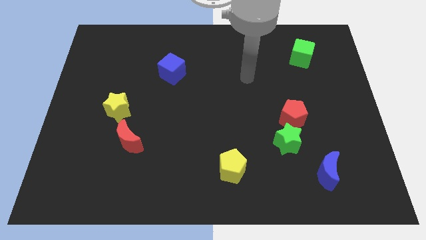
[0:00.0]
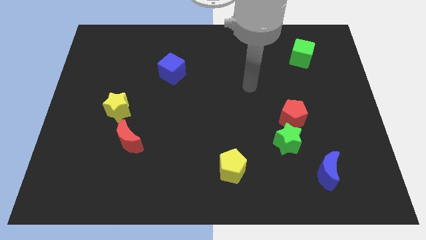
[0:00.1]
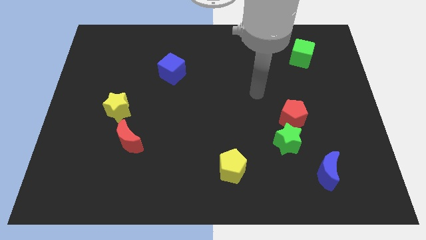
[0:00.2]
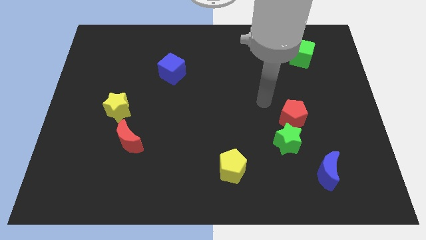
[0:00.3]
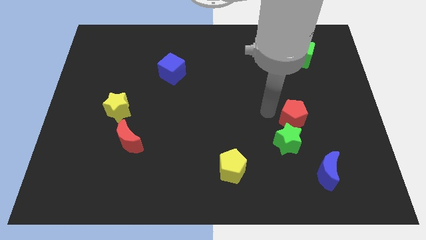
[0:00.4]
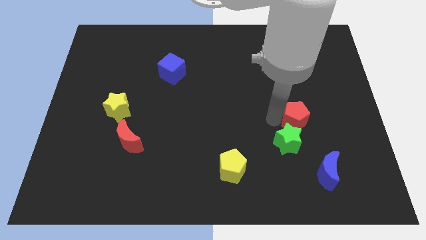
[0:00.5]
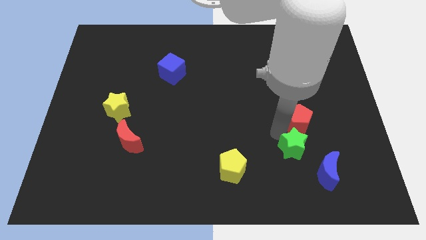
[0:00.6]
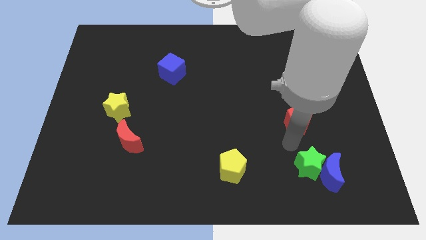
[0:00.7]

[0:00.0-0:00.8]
separate the red pentagon from the green star

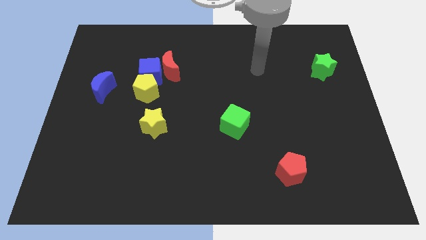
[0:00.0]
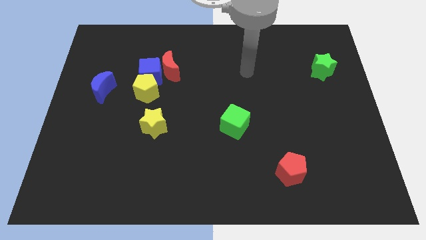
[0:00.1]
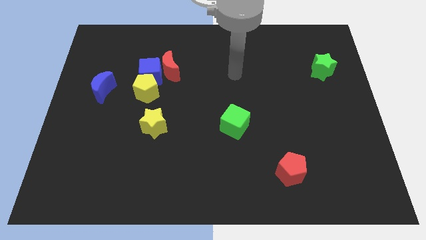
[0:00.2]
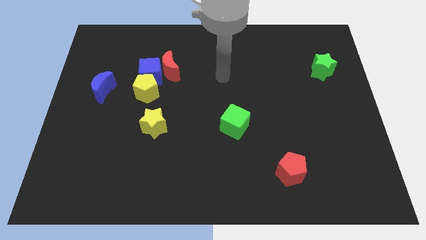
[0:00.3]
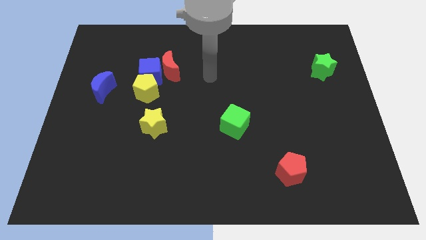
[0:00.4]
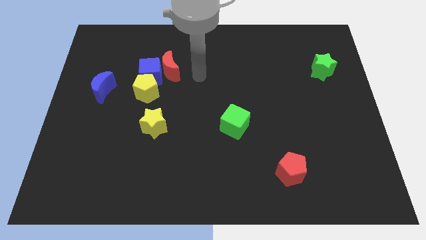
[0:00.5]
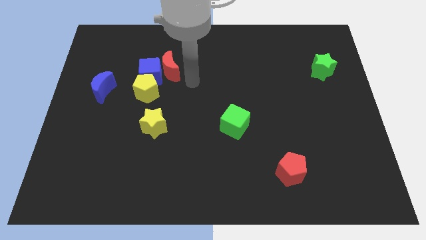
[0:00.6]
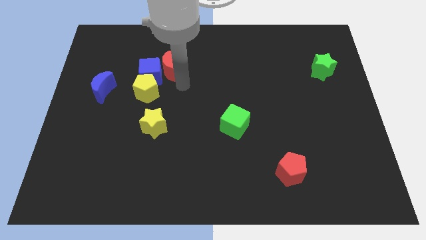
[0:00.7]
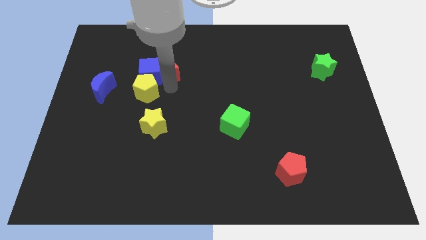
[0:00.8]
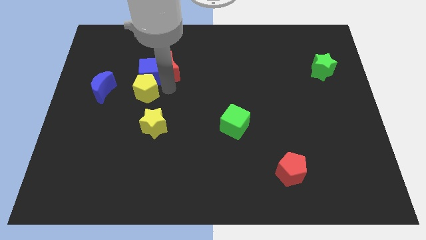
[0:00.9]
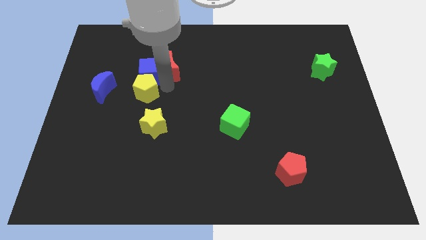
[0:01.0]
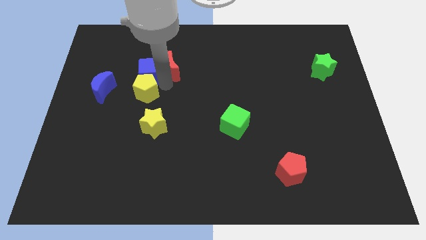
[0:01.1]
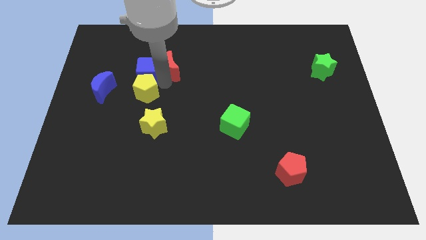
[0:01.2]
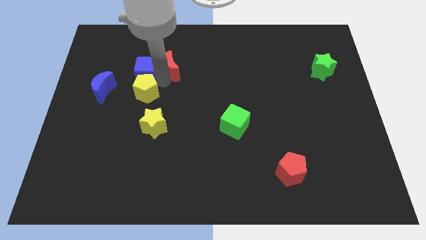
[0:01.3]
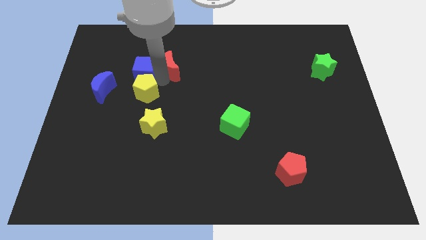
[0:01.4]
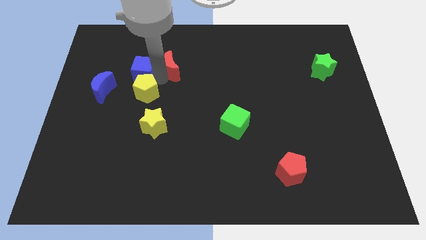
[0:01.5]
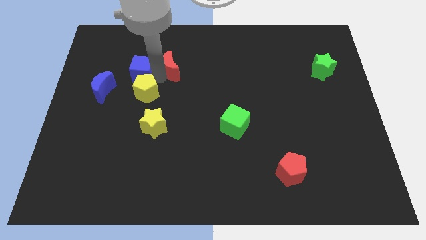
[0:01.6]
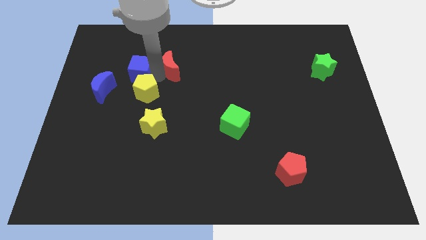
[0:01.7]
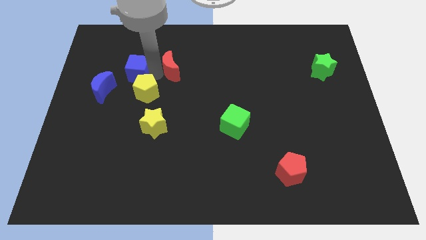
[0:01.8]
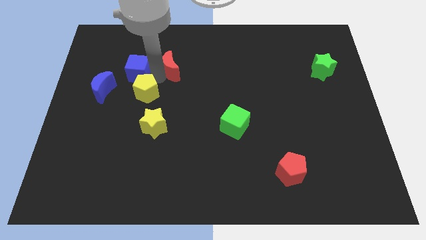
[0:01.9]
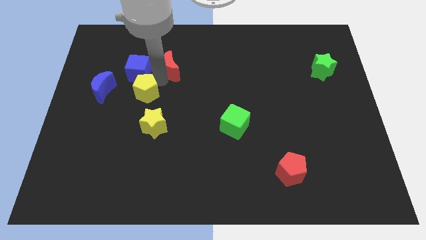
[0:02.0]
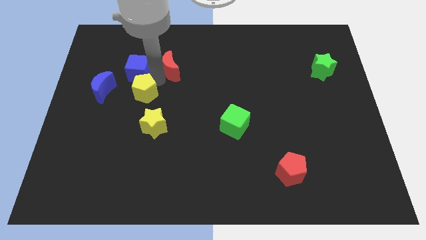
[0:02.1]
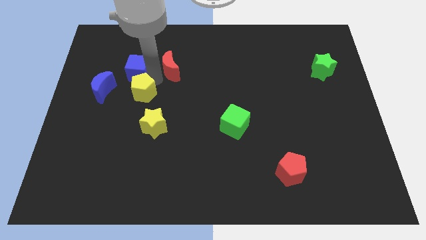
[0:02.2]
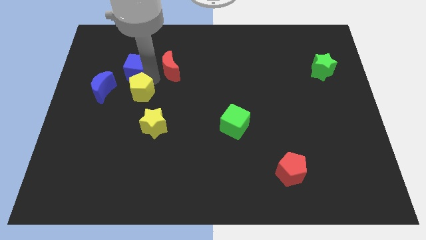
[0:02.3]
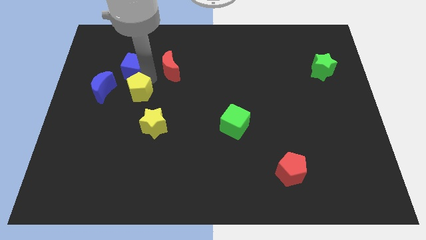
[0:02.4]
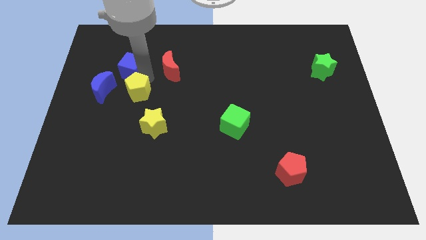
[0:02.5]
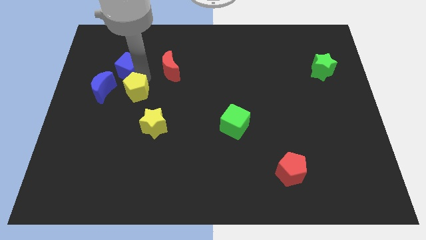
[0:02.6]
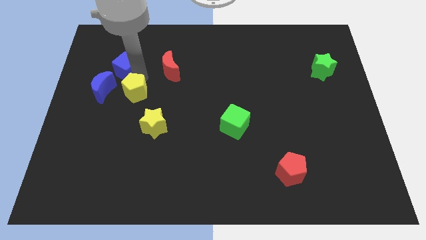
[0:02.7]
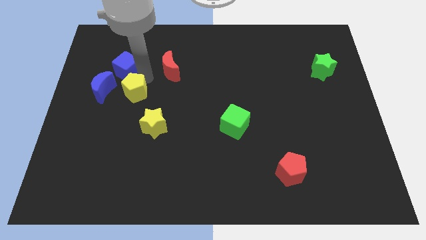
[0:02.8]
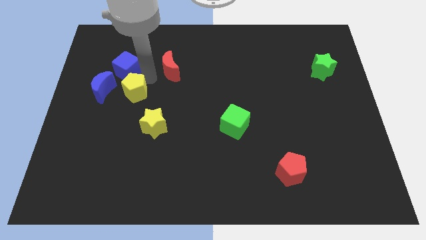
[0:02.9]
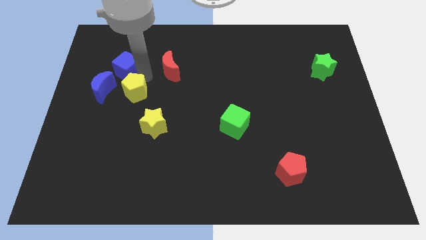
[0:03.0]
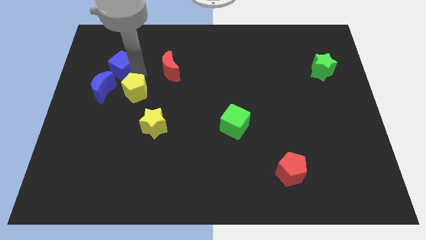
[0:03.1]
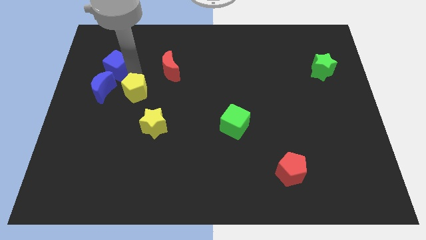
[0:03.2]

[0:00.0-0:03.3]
pull the blue cube apart from the red moon and yellow pentagon

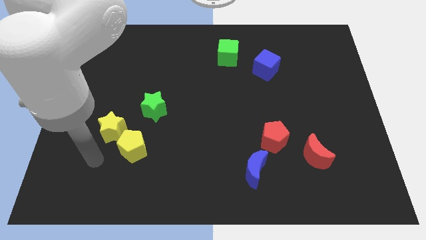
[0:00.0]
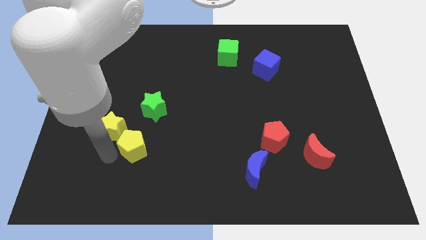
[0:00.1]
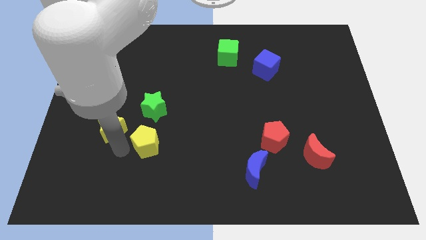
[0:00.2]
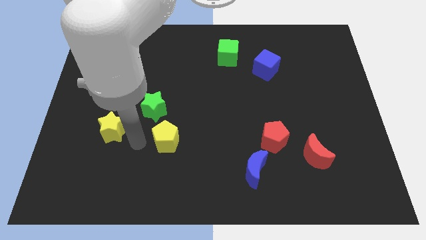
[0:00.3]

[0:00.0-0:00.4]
separate the yellow star from the yellow pentagon

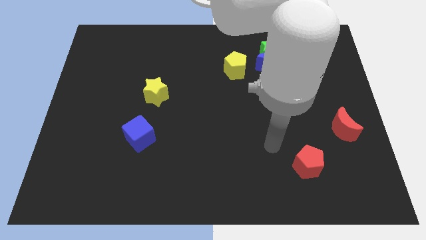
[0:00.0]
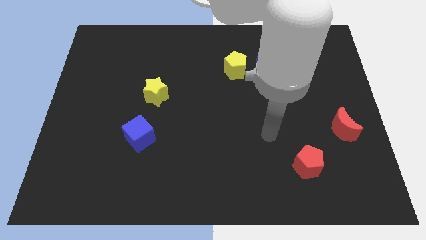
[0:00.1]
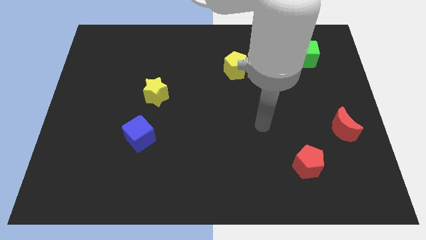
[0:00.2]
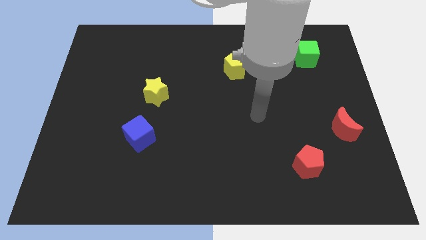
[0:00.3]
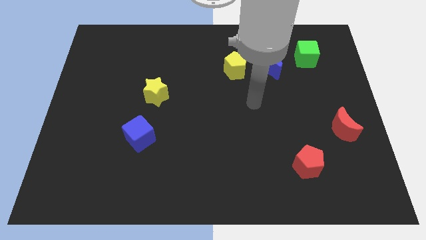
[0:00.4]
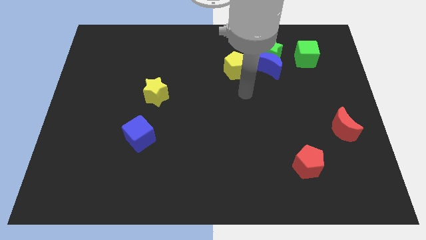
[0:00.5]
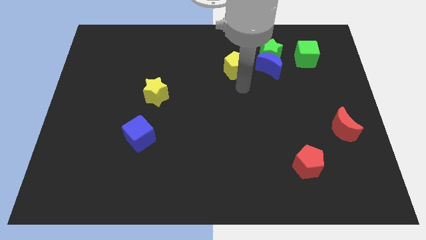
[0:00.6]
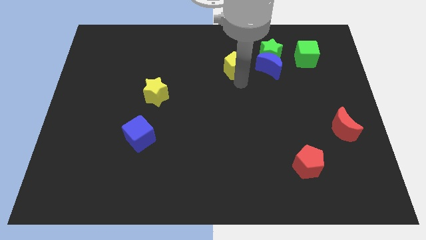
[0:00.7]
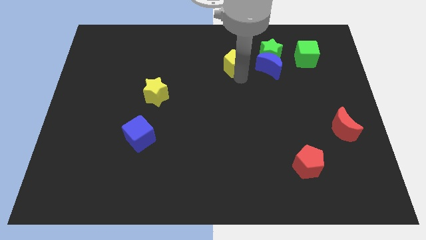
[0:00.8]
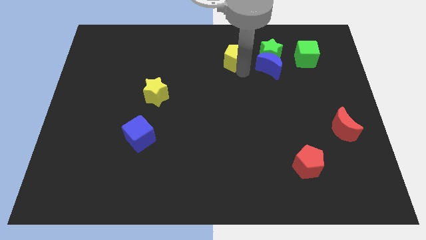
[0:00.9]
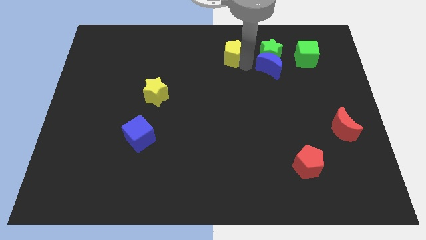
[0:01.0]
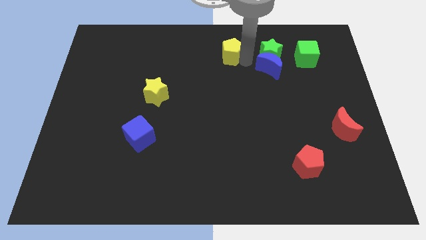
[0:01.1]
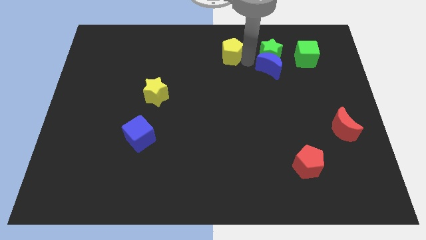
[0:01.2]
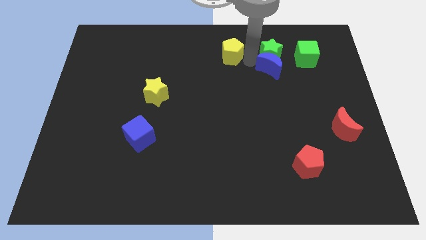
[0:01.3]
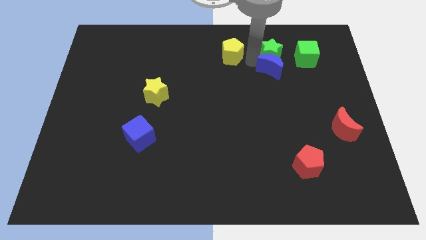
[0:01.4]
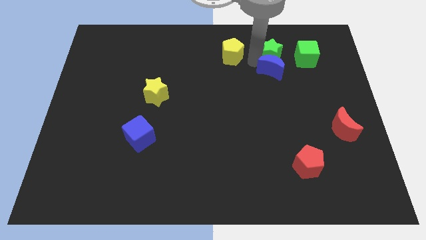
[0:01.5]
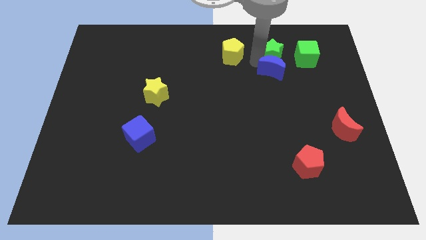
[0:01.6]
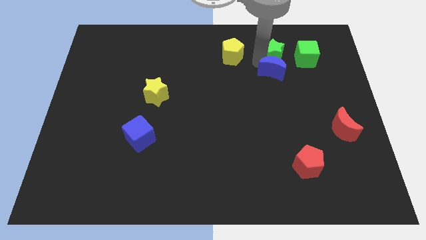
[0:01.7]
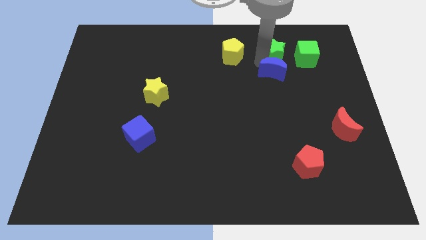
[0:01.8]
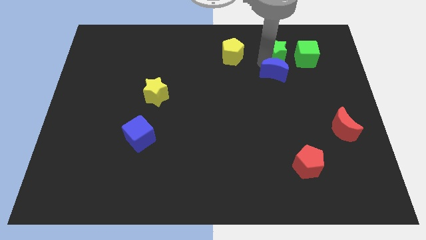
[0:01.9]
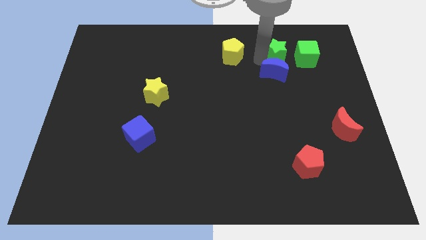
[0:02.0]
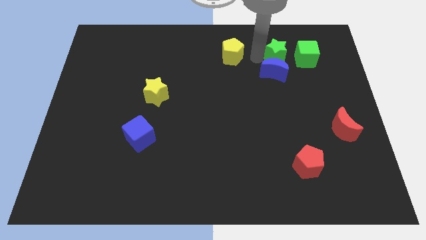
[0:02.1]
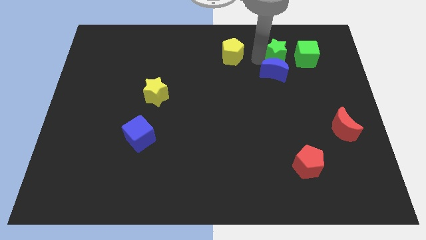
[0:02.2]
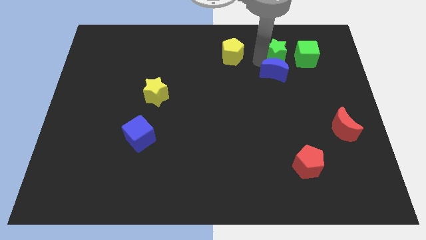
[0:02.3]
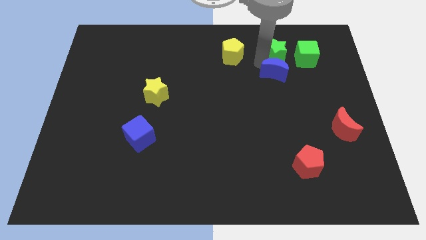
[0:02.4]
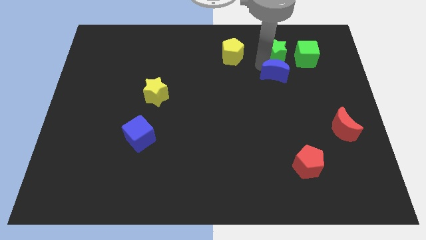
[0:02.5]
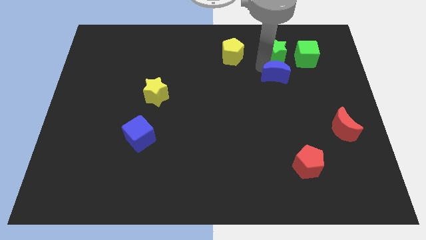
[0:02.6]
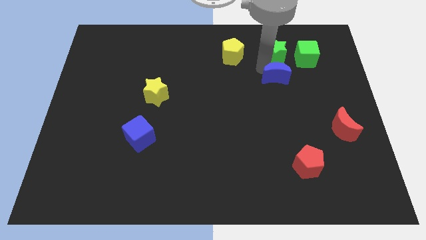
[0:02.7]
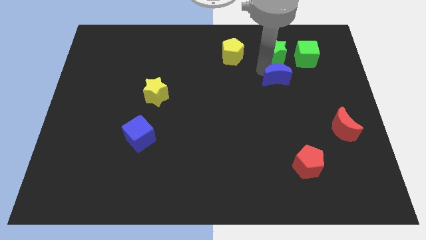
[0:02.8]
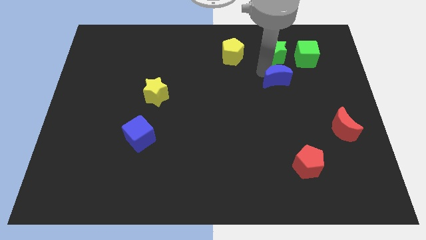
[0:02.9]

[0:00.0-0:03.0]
separate the blue moon from the green star and yellow pentagon

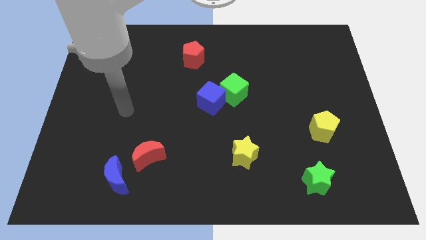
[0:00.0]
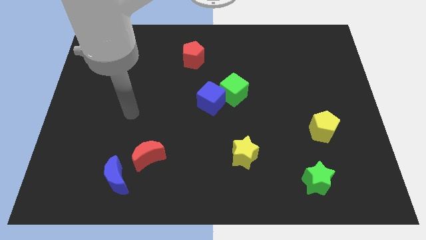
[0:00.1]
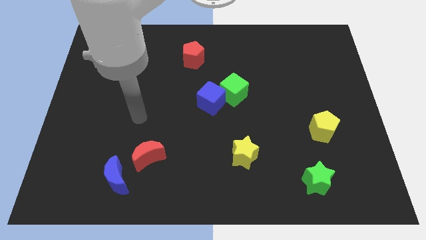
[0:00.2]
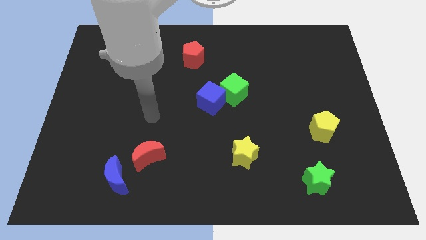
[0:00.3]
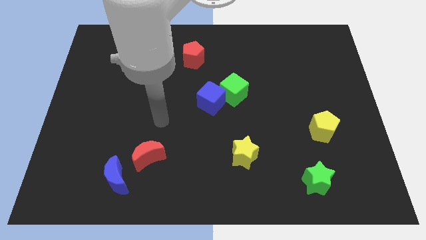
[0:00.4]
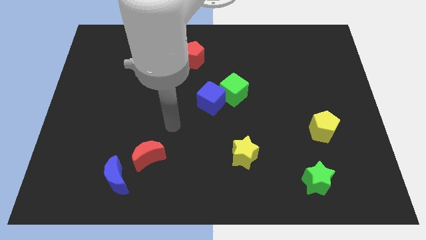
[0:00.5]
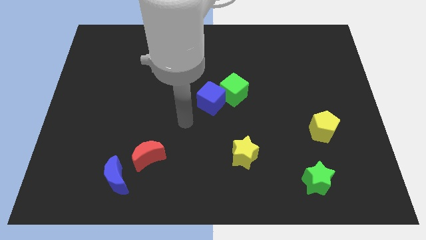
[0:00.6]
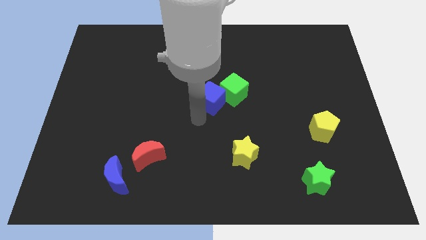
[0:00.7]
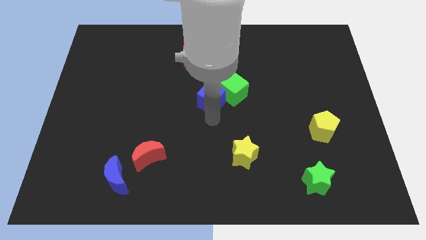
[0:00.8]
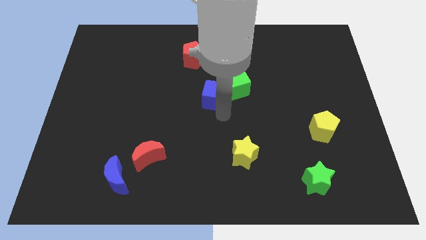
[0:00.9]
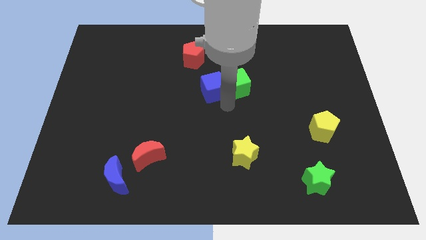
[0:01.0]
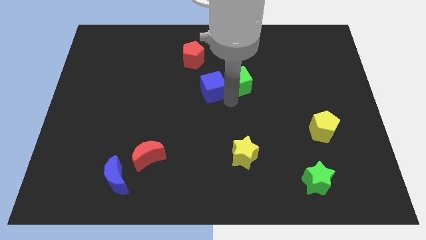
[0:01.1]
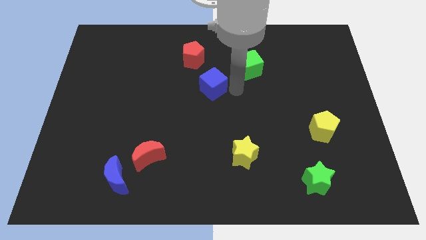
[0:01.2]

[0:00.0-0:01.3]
separate the blue cube from the green cube

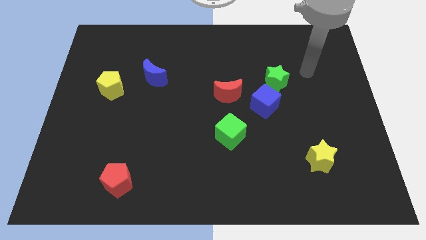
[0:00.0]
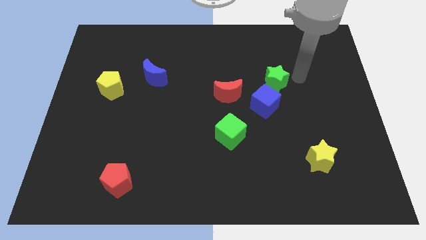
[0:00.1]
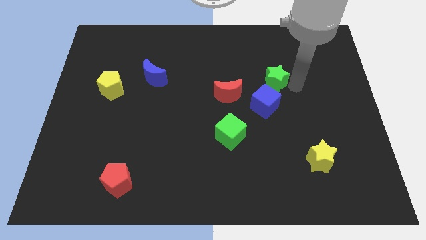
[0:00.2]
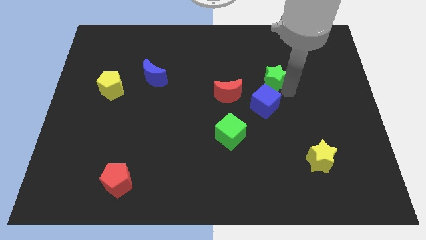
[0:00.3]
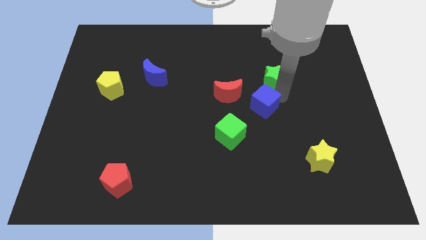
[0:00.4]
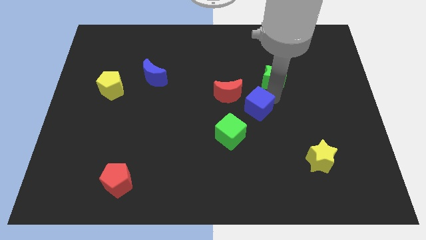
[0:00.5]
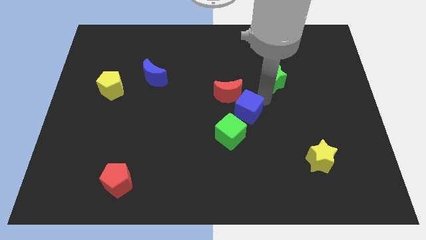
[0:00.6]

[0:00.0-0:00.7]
move the green star away from the blue cube

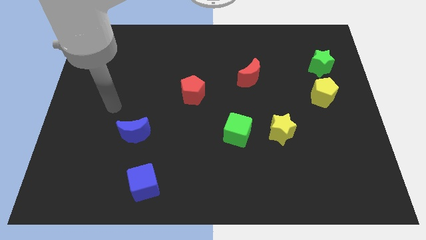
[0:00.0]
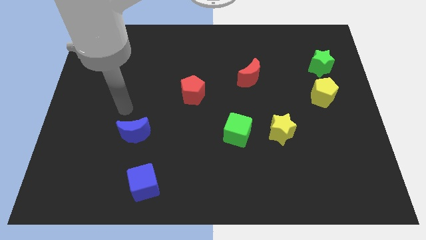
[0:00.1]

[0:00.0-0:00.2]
separate the green cube from the yellow star
